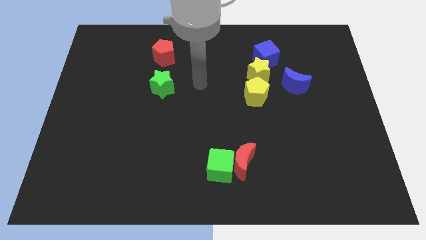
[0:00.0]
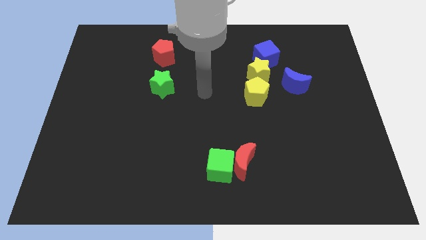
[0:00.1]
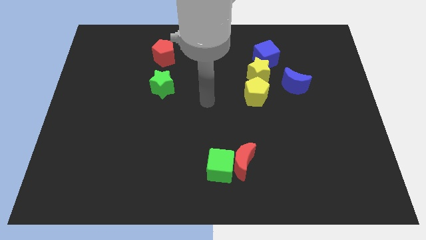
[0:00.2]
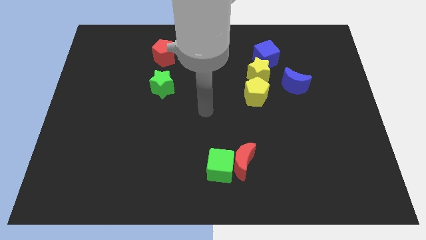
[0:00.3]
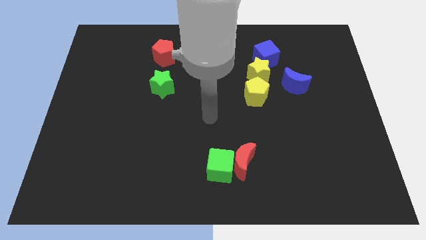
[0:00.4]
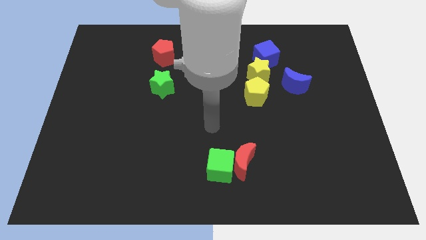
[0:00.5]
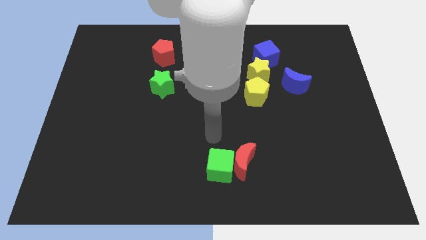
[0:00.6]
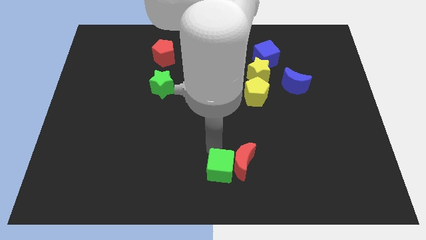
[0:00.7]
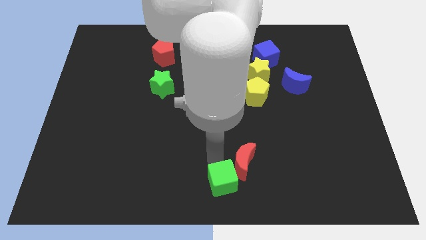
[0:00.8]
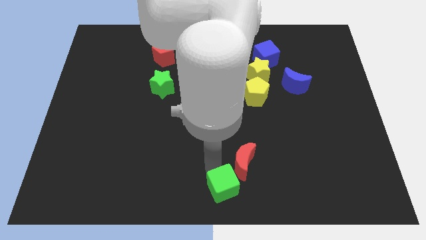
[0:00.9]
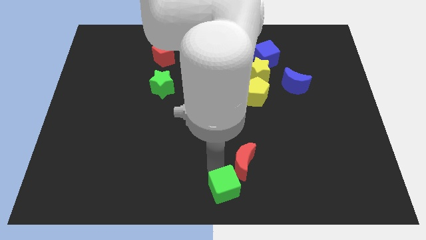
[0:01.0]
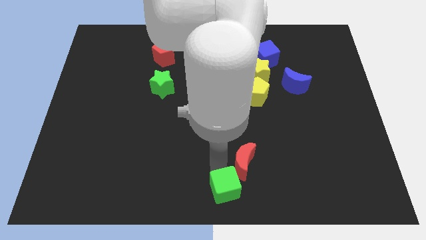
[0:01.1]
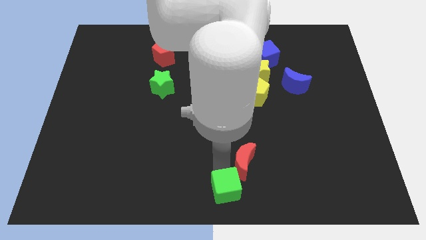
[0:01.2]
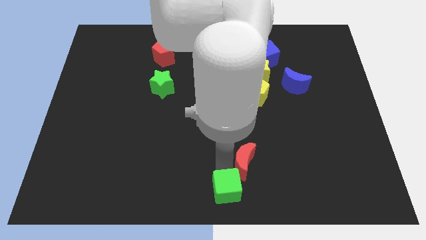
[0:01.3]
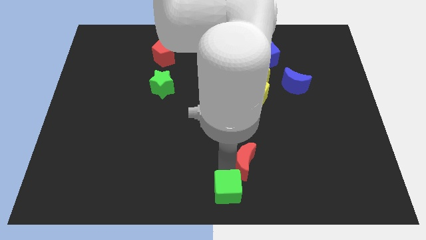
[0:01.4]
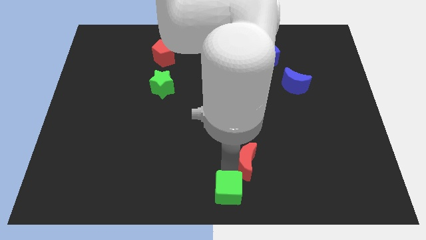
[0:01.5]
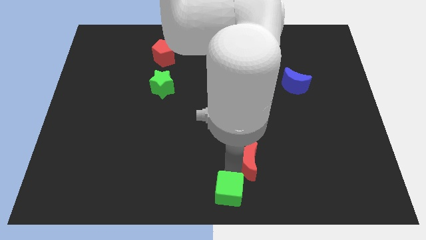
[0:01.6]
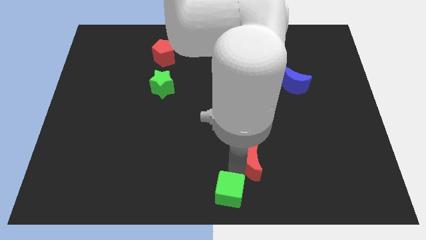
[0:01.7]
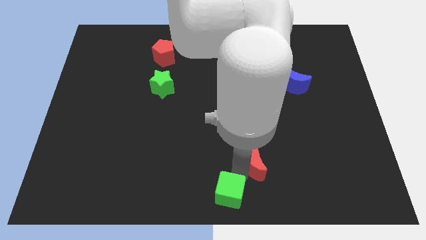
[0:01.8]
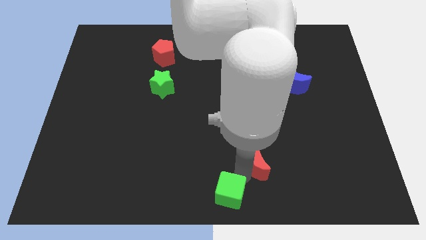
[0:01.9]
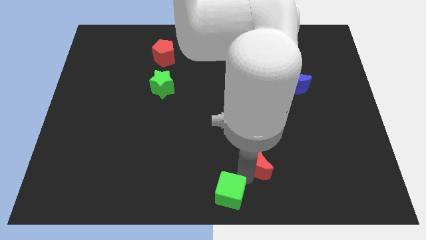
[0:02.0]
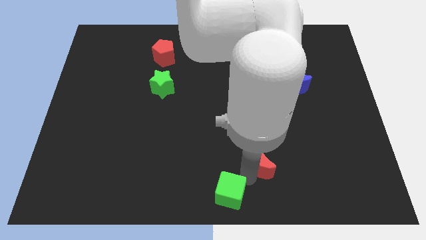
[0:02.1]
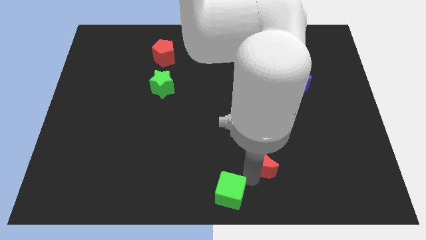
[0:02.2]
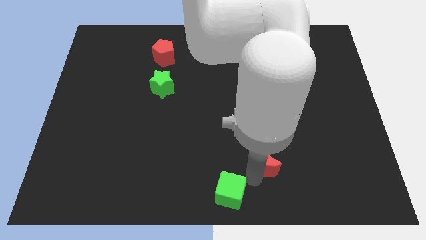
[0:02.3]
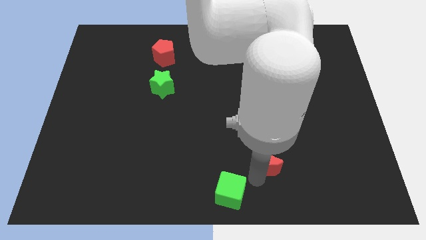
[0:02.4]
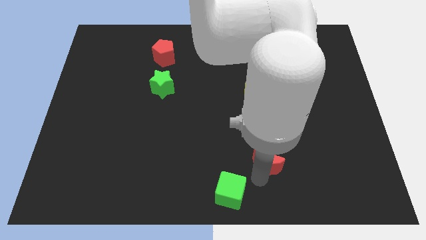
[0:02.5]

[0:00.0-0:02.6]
move the red moon away from the green cube

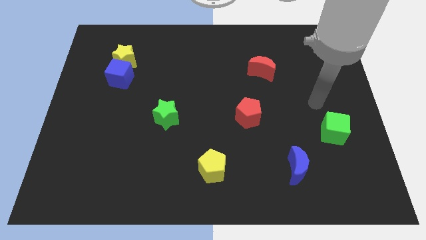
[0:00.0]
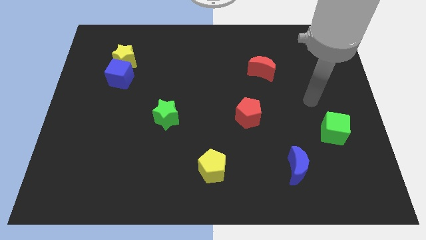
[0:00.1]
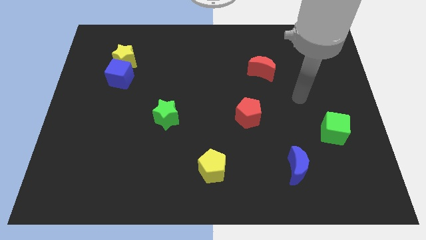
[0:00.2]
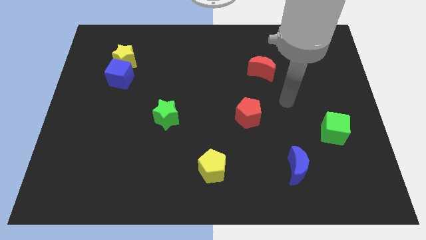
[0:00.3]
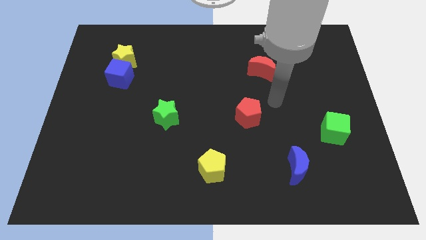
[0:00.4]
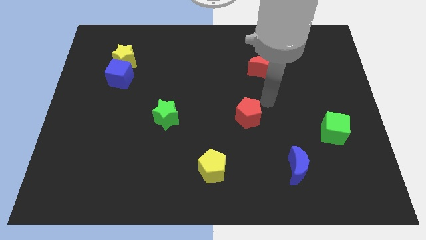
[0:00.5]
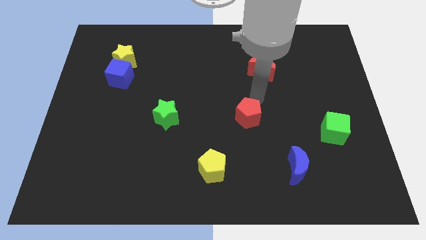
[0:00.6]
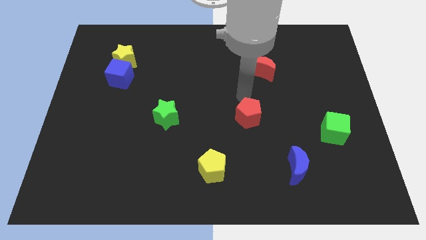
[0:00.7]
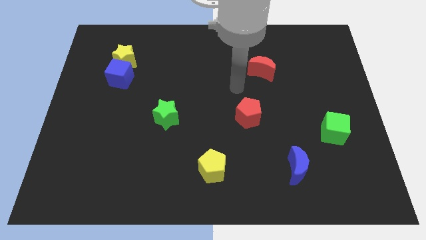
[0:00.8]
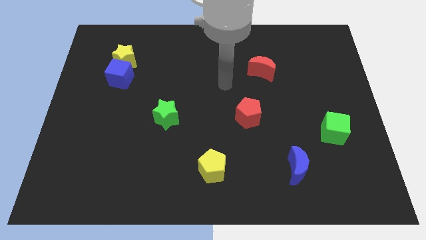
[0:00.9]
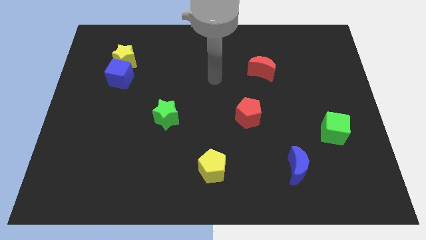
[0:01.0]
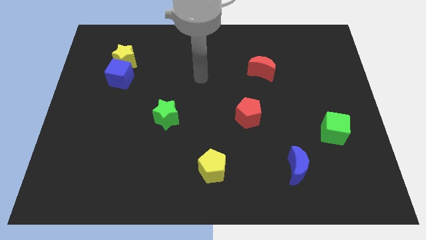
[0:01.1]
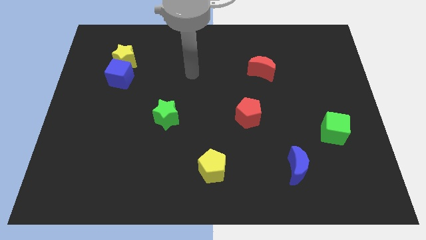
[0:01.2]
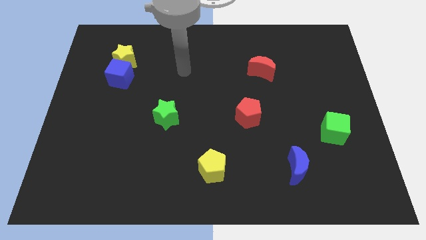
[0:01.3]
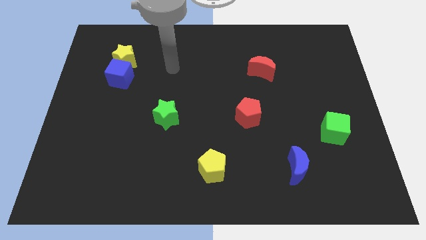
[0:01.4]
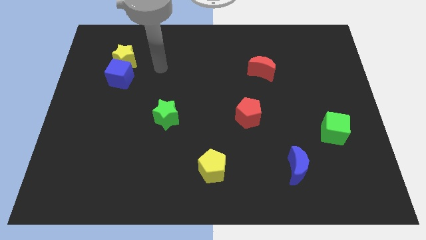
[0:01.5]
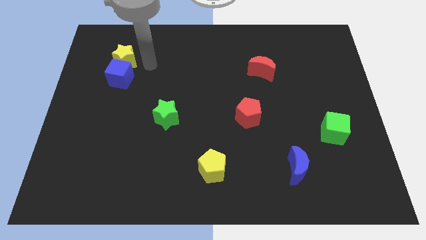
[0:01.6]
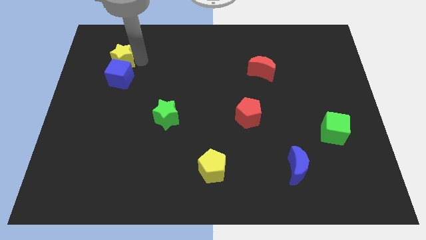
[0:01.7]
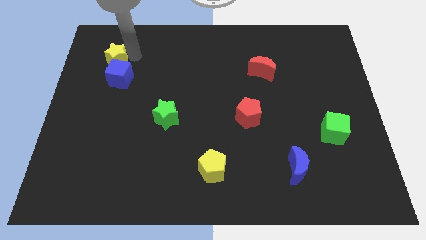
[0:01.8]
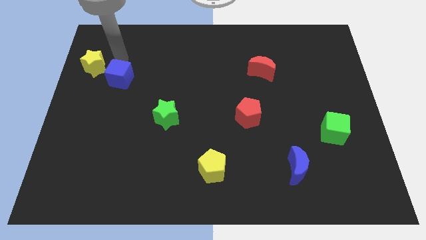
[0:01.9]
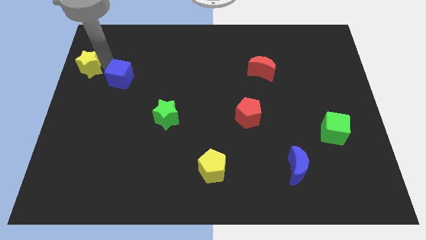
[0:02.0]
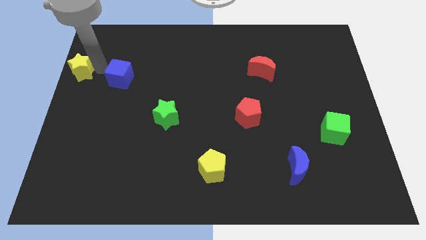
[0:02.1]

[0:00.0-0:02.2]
pull the blue cube apart from the yellow star

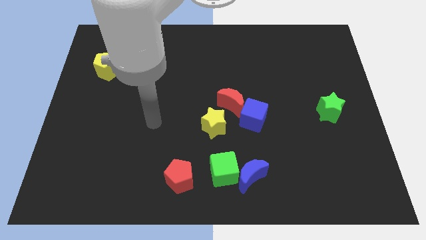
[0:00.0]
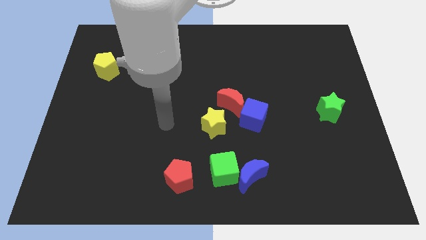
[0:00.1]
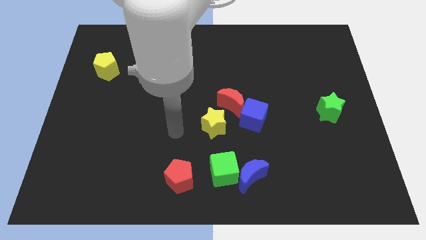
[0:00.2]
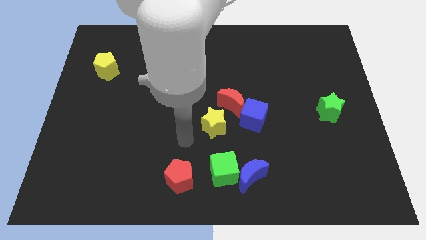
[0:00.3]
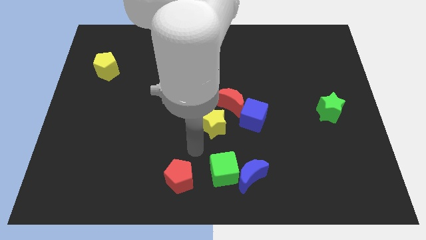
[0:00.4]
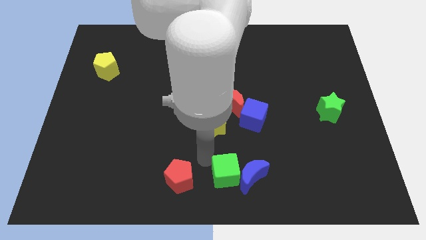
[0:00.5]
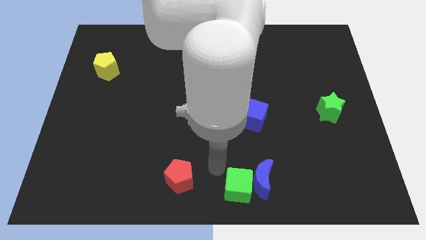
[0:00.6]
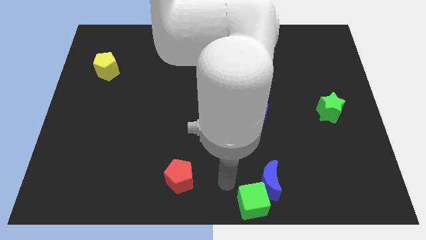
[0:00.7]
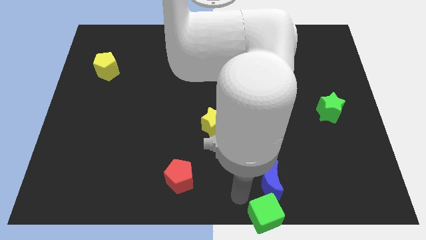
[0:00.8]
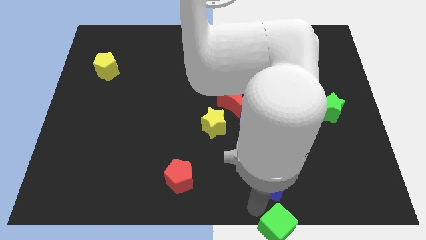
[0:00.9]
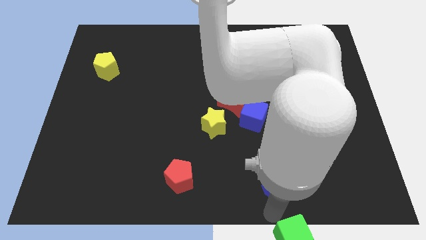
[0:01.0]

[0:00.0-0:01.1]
pull the blue moon apart from the green cube

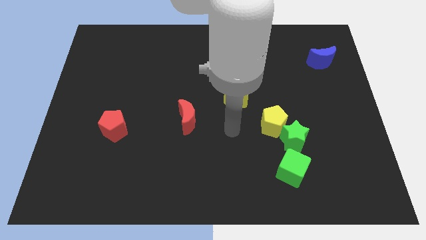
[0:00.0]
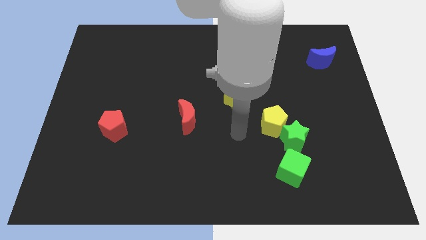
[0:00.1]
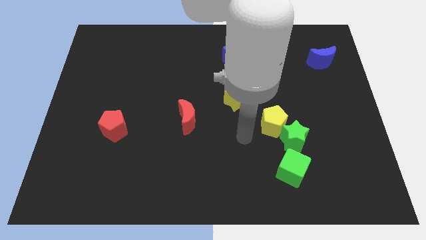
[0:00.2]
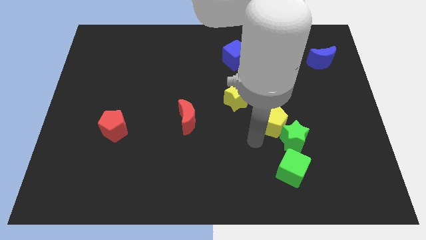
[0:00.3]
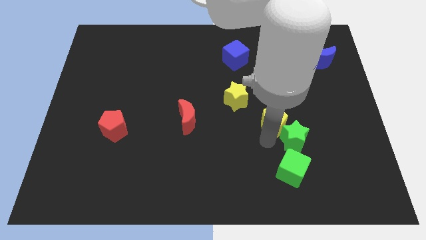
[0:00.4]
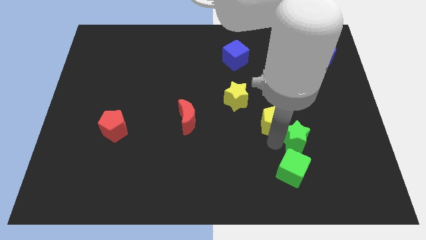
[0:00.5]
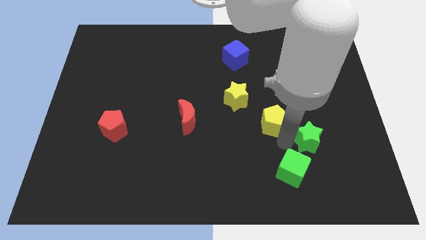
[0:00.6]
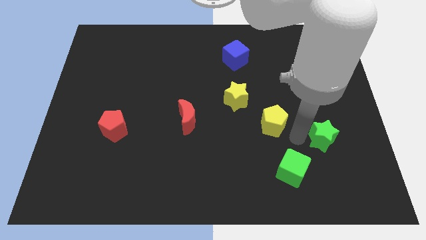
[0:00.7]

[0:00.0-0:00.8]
separate the yellow pentagon from the green star

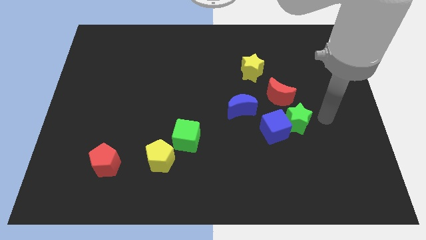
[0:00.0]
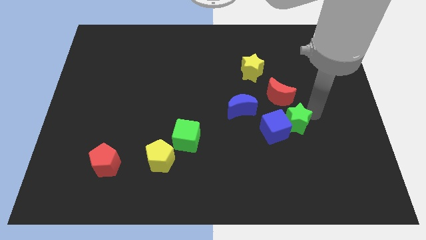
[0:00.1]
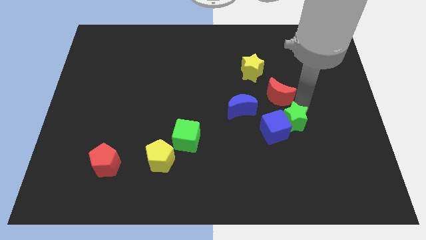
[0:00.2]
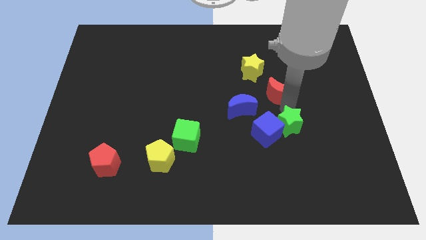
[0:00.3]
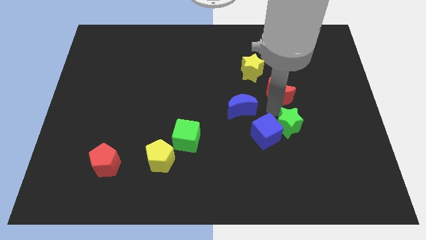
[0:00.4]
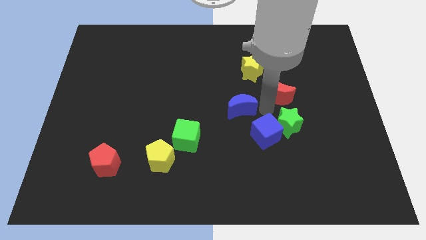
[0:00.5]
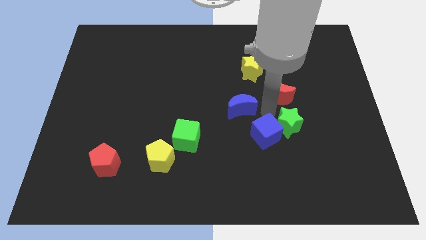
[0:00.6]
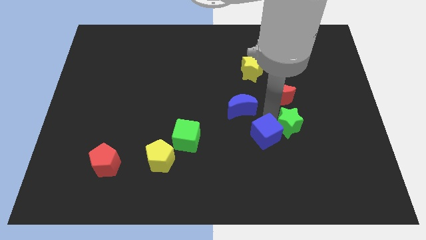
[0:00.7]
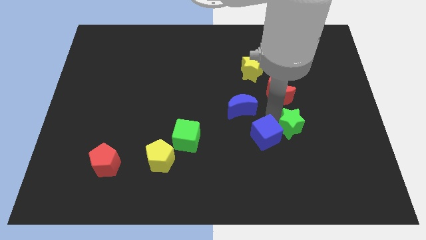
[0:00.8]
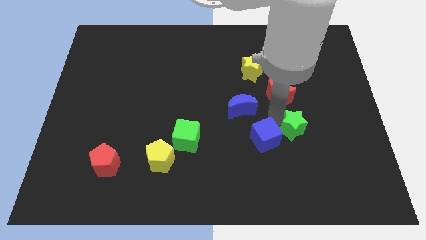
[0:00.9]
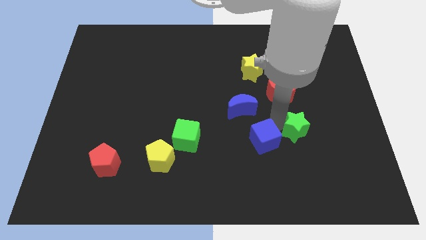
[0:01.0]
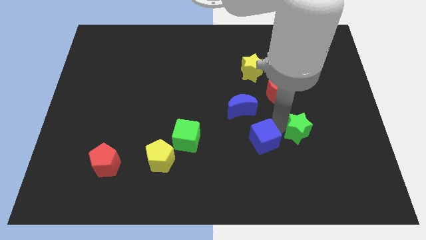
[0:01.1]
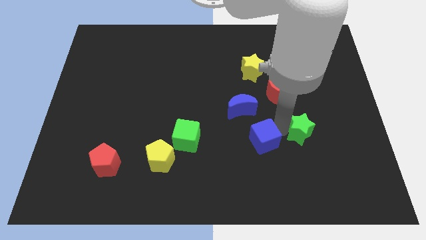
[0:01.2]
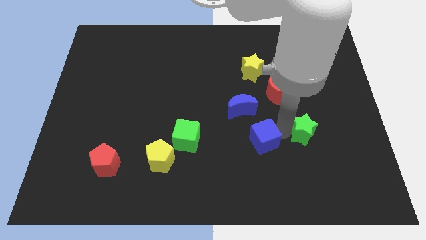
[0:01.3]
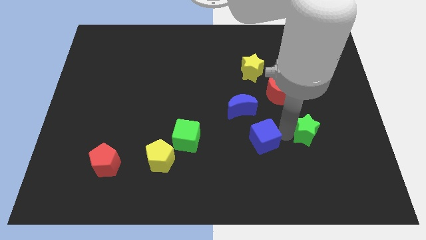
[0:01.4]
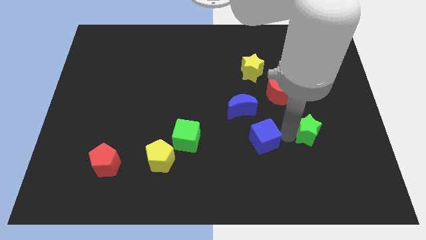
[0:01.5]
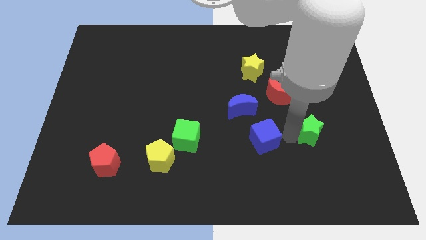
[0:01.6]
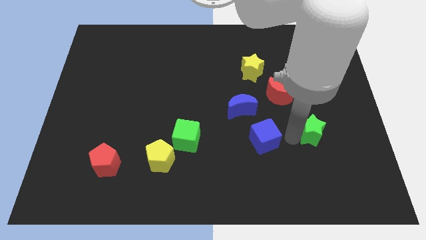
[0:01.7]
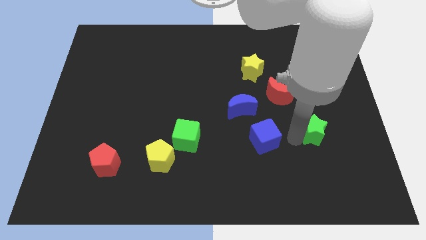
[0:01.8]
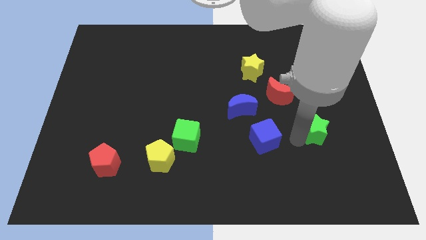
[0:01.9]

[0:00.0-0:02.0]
move the green star away from the blue cube and red moon

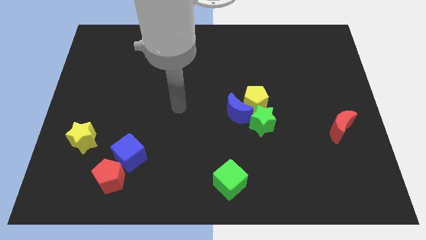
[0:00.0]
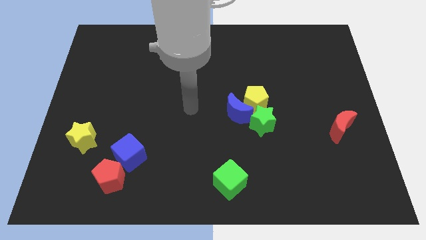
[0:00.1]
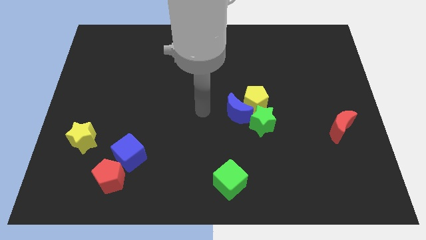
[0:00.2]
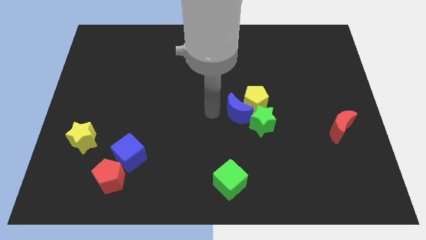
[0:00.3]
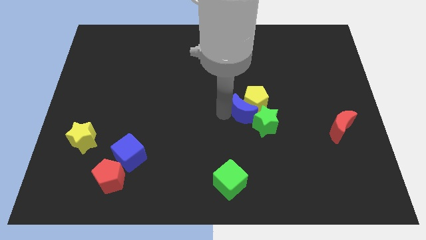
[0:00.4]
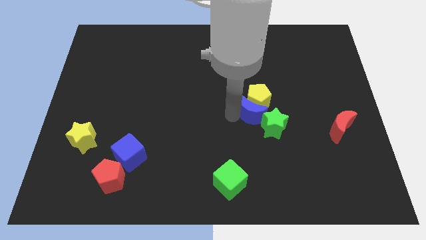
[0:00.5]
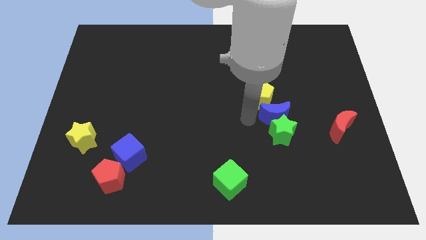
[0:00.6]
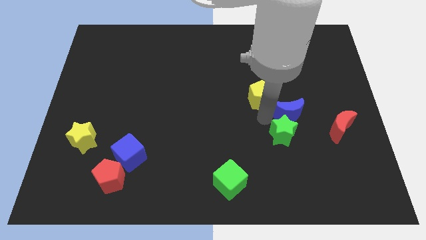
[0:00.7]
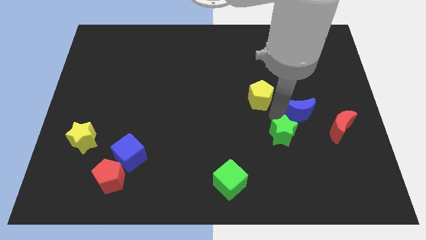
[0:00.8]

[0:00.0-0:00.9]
move the yellow pentagon away from the blue moon and green star
